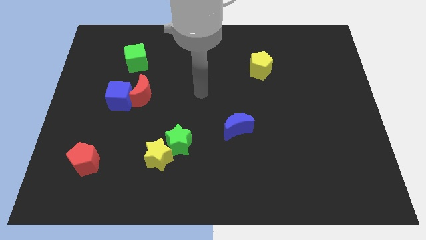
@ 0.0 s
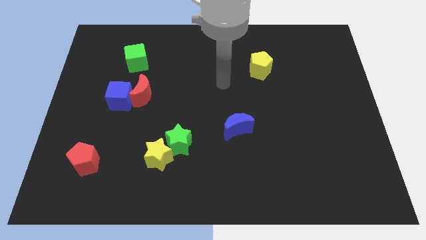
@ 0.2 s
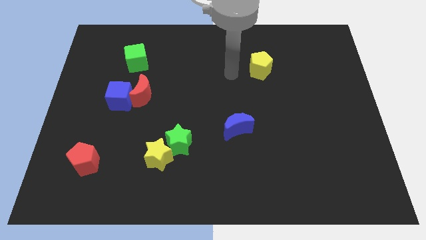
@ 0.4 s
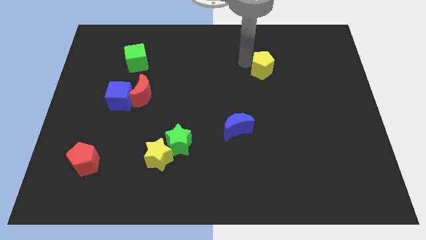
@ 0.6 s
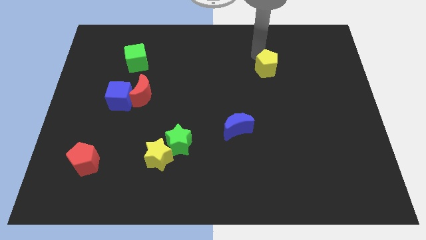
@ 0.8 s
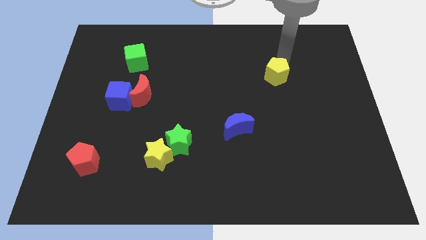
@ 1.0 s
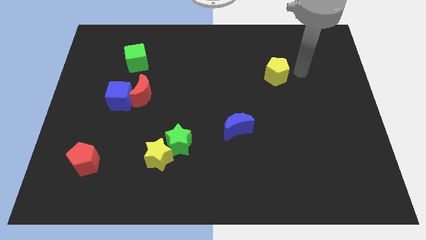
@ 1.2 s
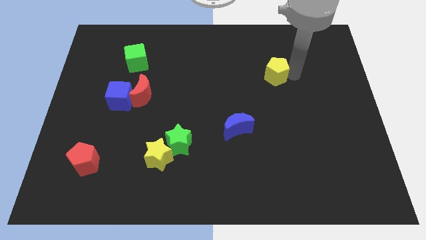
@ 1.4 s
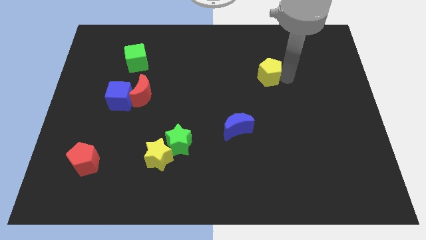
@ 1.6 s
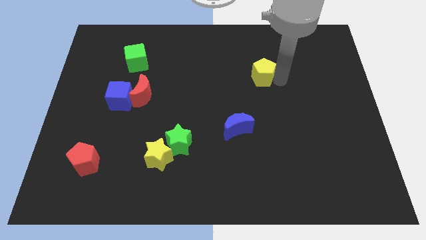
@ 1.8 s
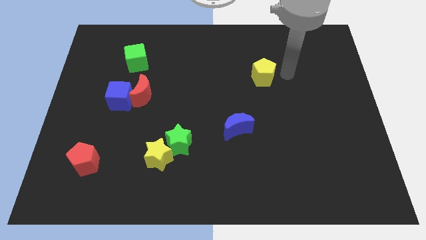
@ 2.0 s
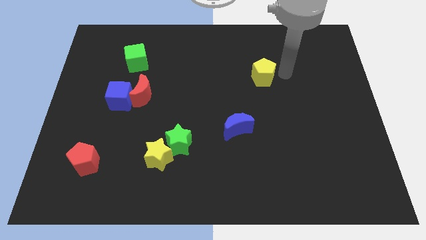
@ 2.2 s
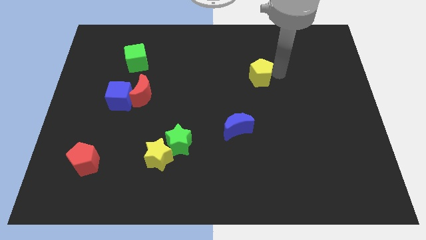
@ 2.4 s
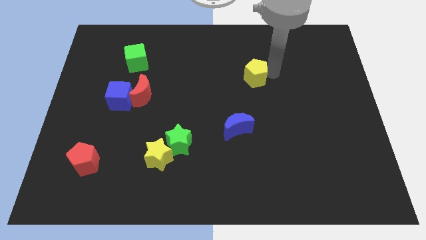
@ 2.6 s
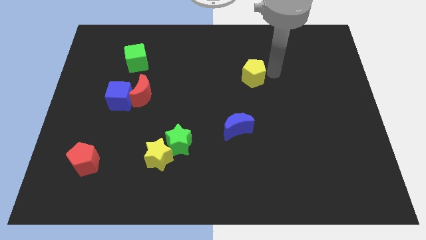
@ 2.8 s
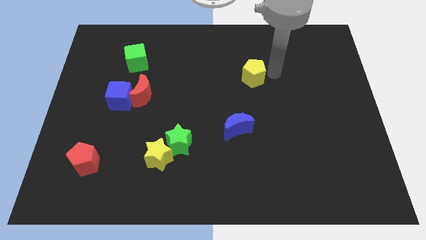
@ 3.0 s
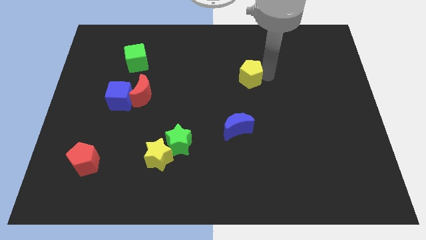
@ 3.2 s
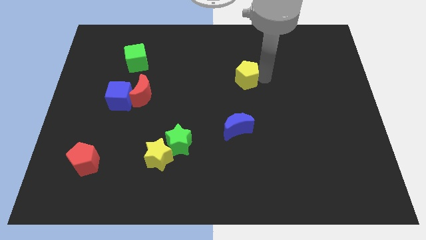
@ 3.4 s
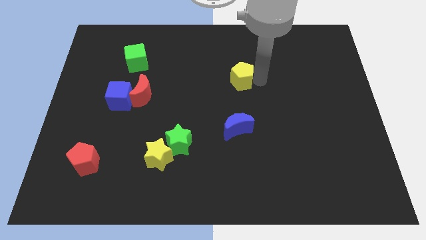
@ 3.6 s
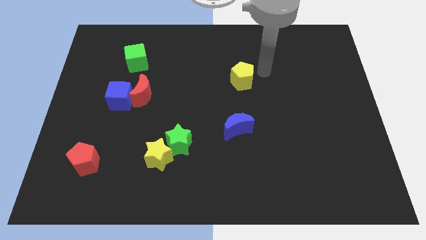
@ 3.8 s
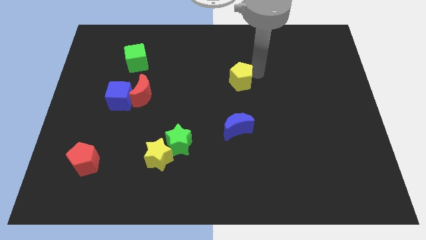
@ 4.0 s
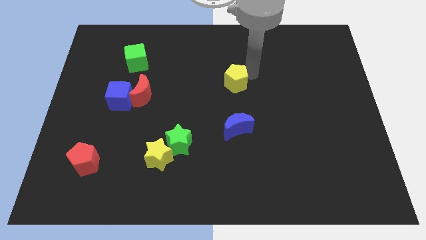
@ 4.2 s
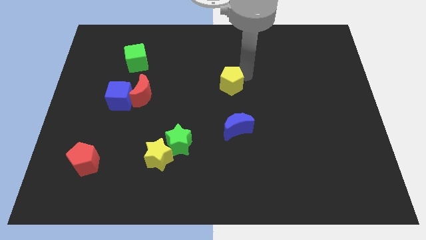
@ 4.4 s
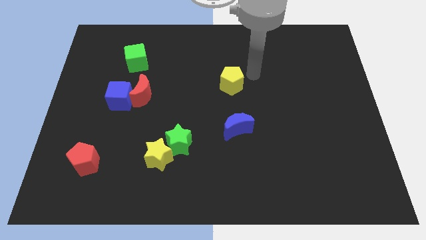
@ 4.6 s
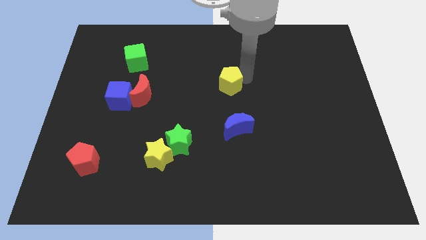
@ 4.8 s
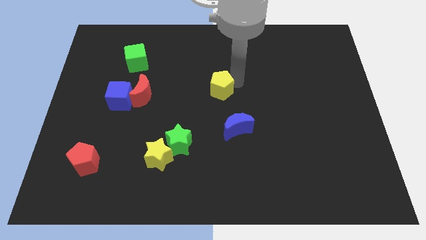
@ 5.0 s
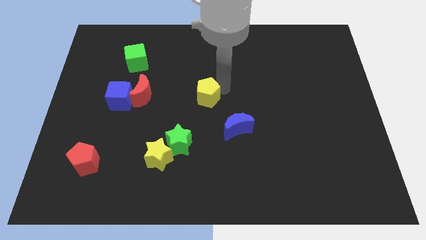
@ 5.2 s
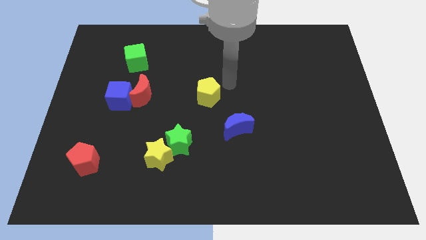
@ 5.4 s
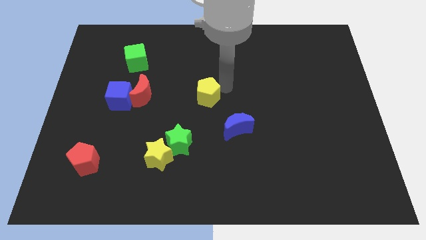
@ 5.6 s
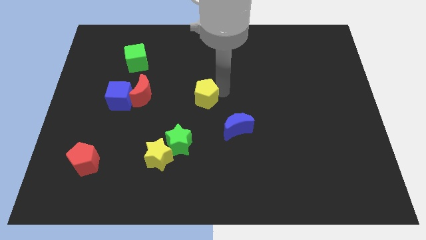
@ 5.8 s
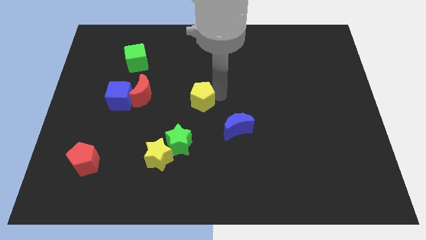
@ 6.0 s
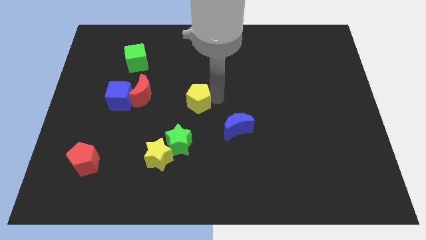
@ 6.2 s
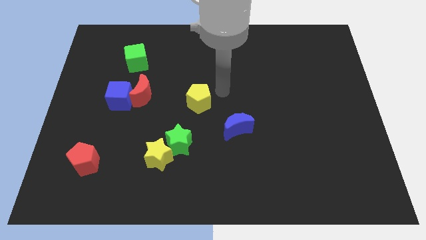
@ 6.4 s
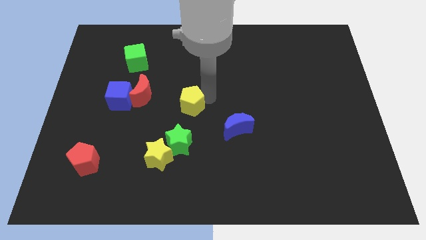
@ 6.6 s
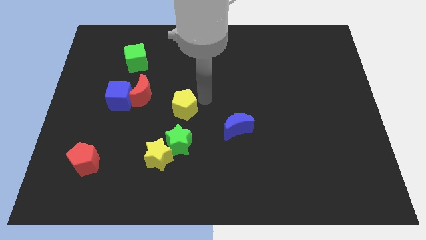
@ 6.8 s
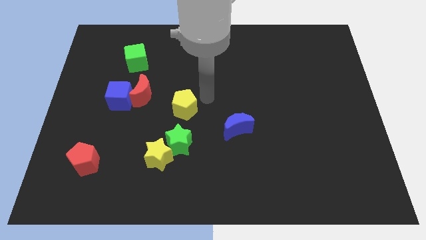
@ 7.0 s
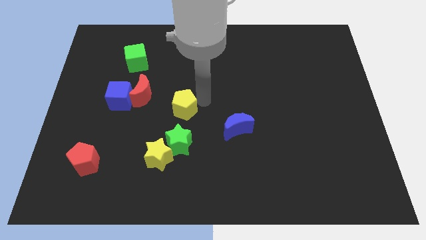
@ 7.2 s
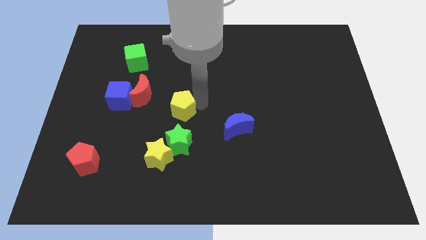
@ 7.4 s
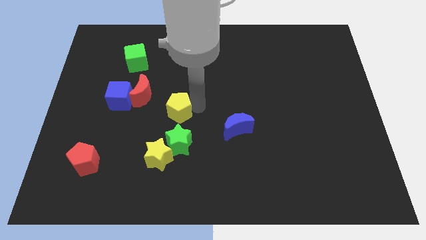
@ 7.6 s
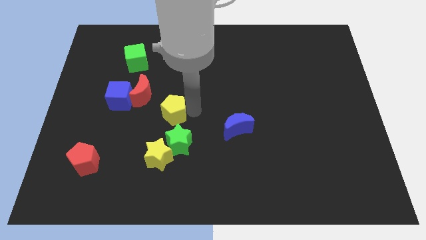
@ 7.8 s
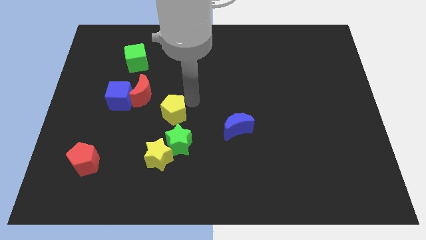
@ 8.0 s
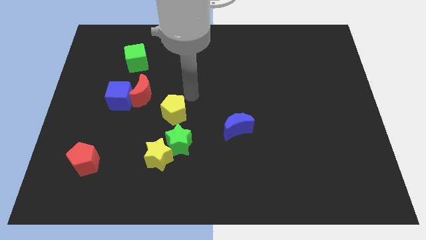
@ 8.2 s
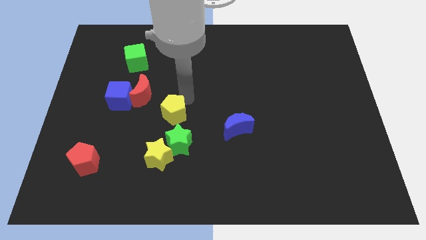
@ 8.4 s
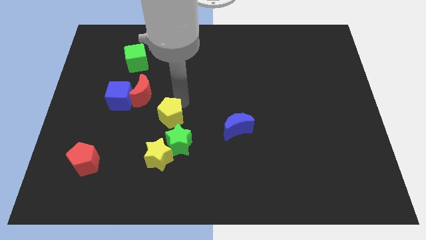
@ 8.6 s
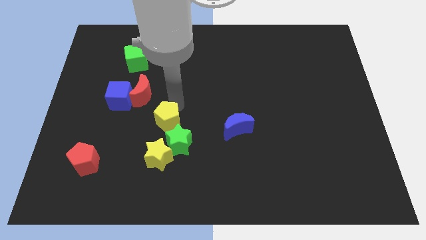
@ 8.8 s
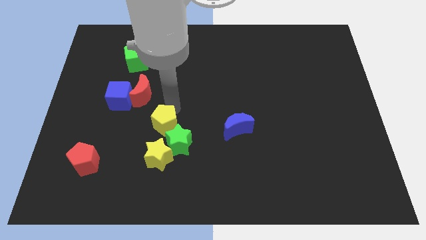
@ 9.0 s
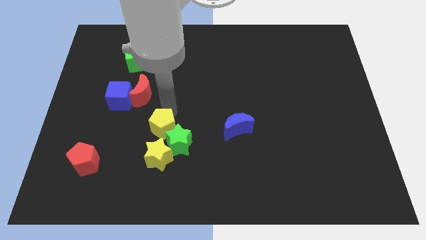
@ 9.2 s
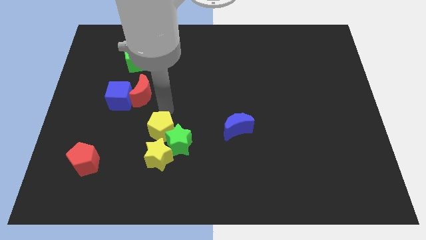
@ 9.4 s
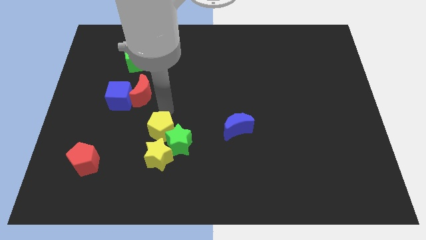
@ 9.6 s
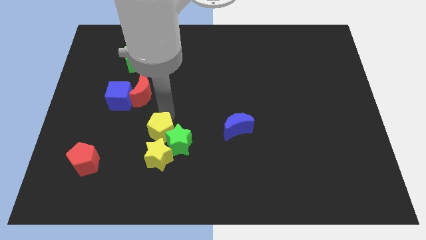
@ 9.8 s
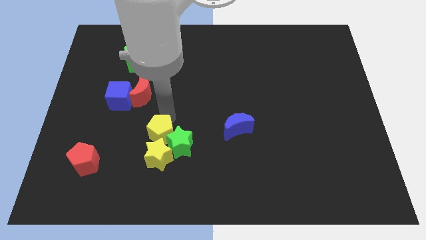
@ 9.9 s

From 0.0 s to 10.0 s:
move the yellow pentagon close to the yellow star

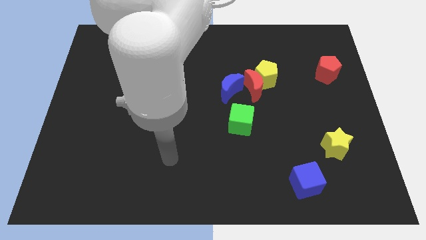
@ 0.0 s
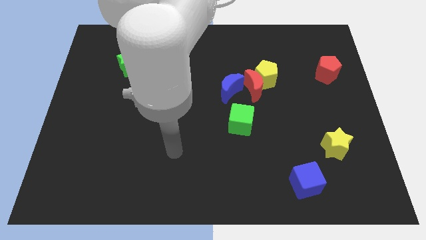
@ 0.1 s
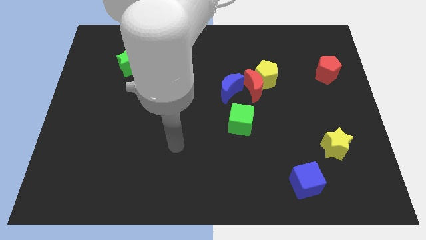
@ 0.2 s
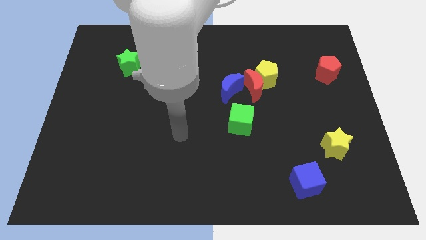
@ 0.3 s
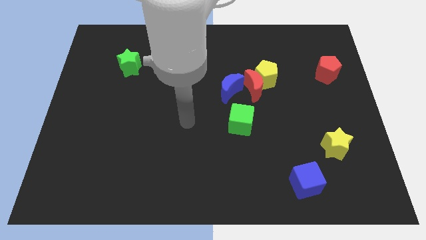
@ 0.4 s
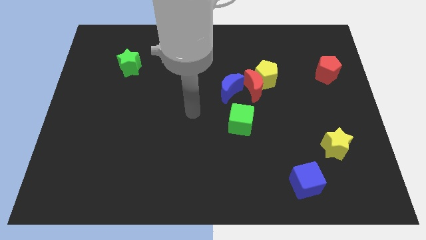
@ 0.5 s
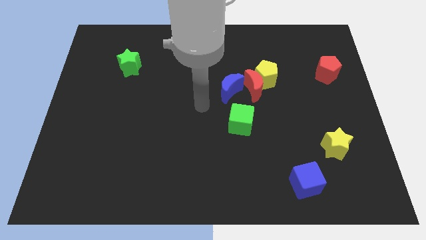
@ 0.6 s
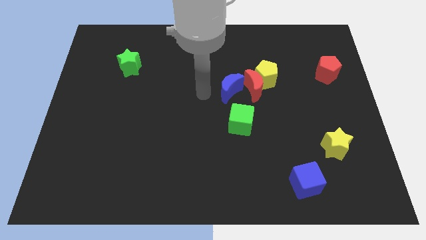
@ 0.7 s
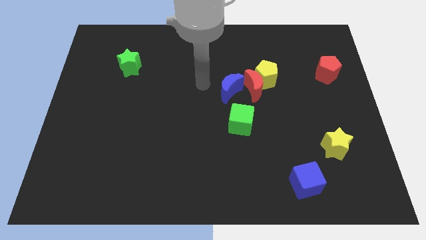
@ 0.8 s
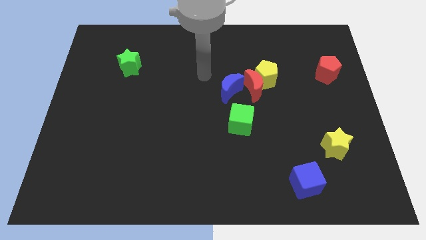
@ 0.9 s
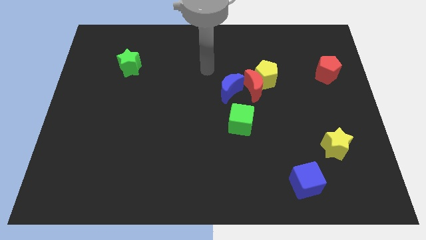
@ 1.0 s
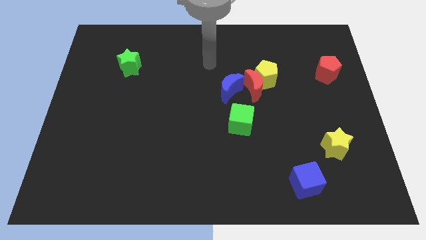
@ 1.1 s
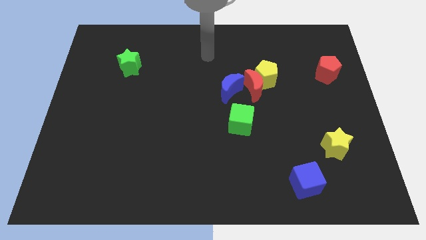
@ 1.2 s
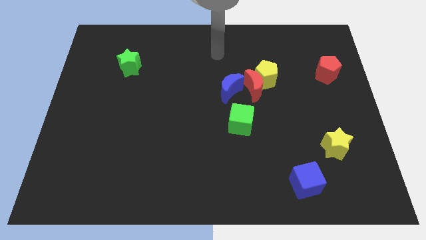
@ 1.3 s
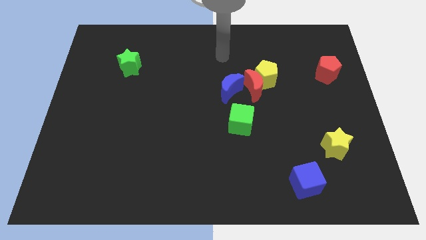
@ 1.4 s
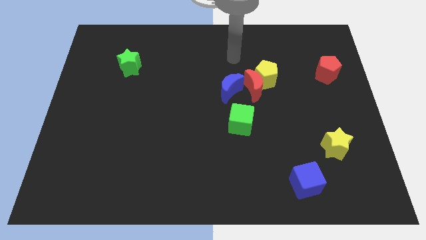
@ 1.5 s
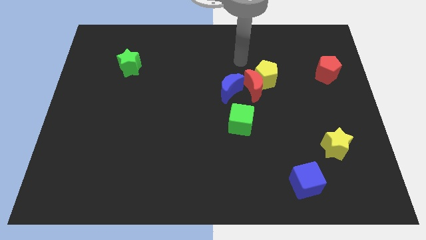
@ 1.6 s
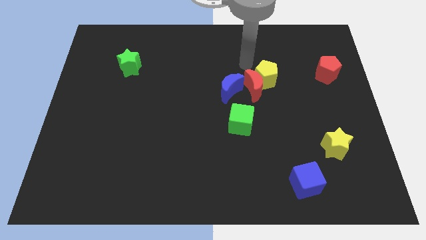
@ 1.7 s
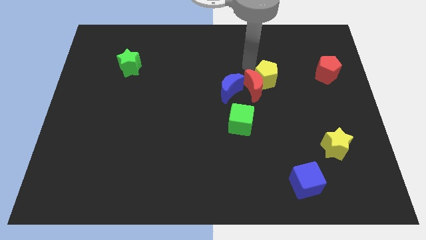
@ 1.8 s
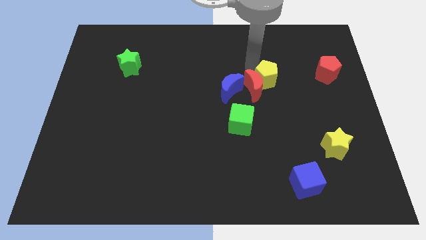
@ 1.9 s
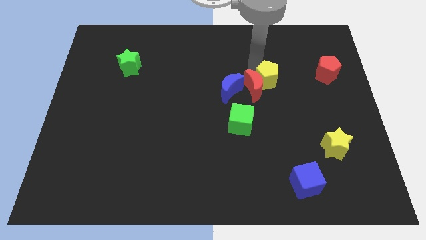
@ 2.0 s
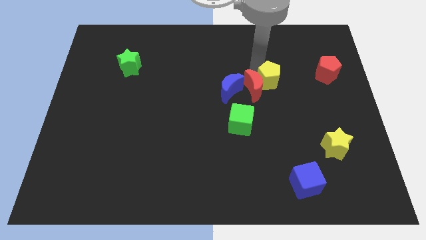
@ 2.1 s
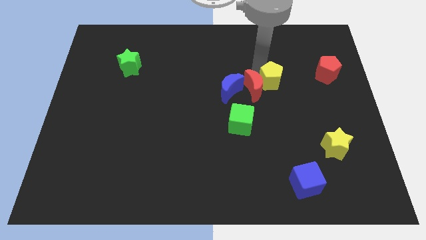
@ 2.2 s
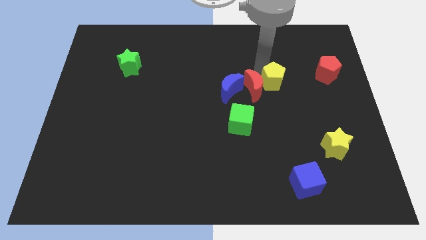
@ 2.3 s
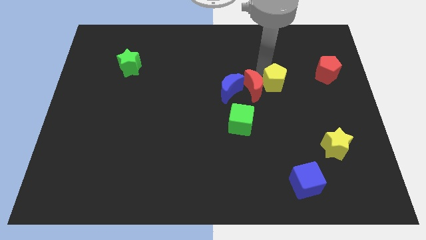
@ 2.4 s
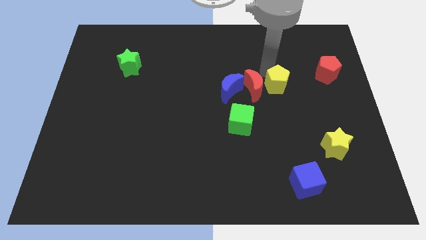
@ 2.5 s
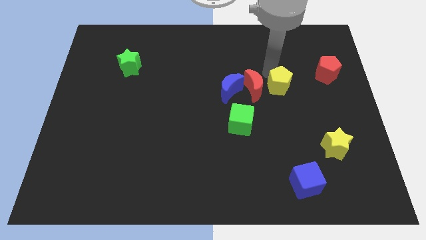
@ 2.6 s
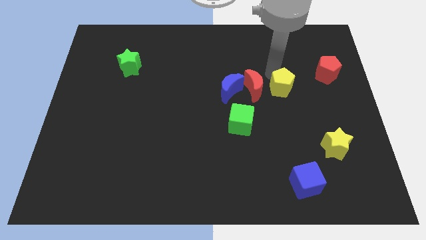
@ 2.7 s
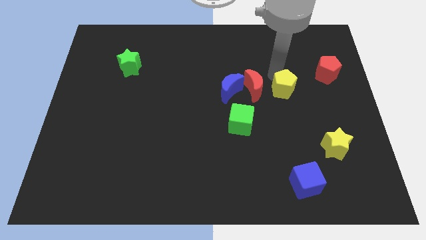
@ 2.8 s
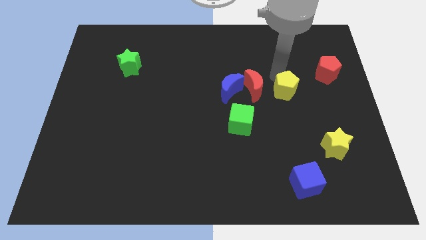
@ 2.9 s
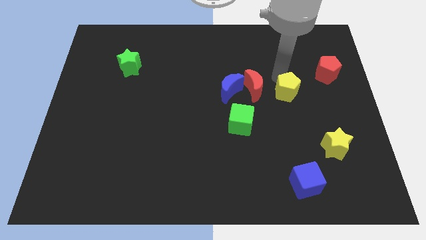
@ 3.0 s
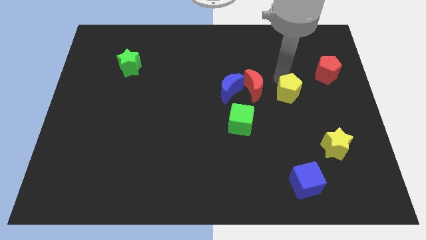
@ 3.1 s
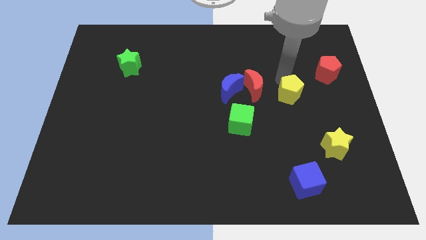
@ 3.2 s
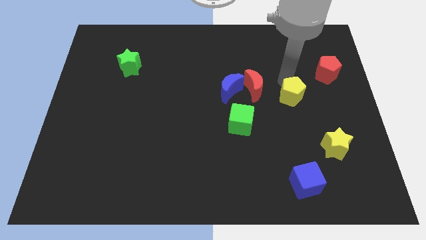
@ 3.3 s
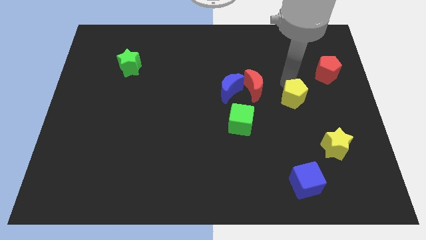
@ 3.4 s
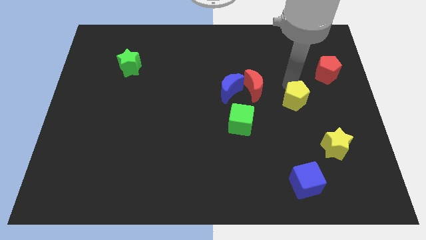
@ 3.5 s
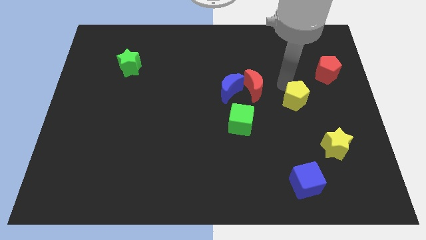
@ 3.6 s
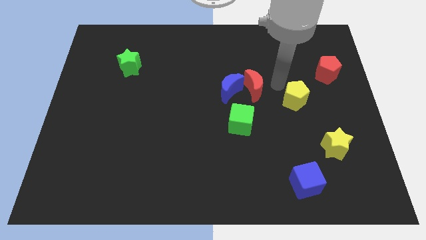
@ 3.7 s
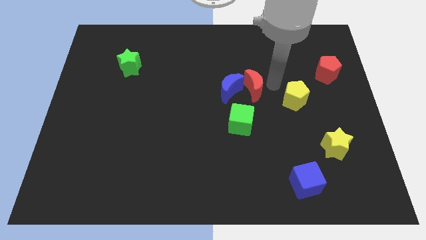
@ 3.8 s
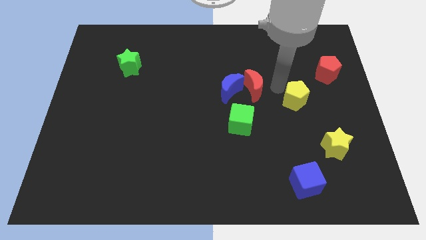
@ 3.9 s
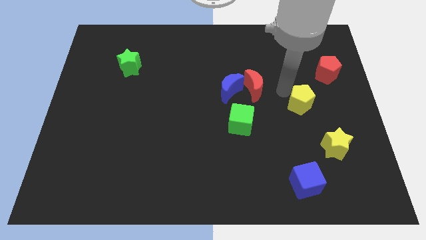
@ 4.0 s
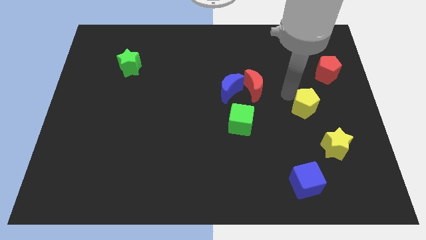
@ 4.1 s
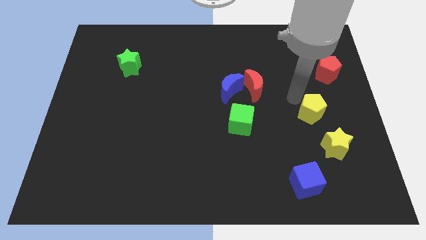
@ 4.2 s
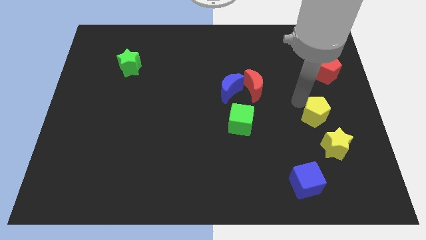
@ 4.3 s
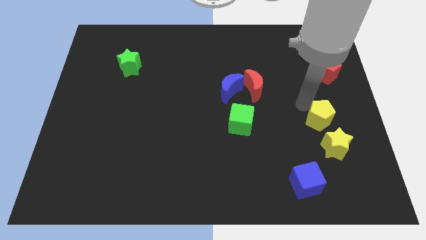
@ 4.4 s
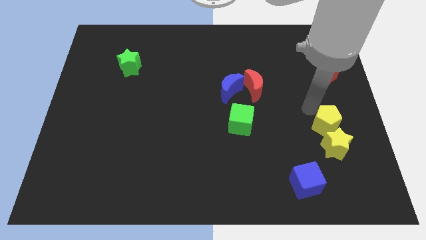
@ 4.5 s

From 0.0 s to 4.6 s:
slide the yellow pentagon next to the yellow star
